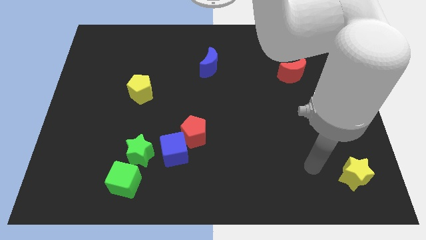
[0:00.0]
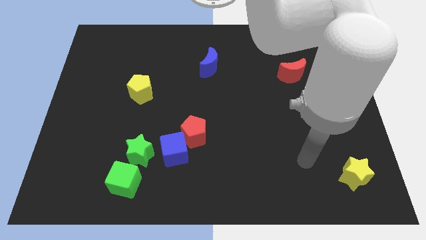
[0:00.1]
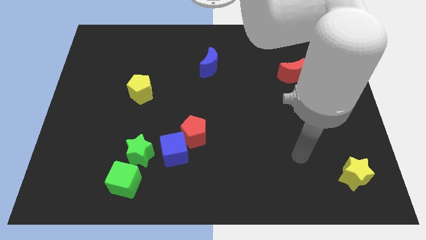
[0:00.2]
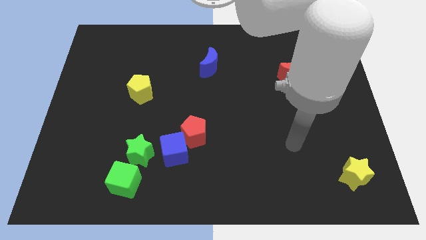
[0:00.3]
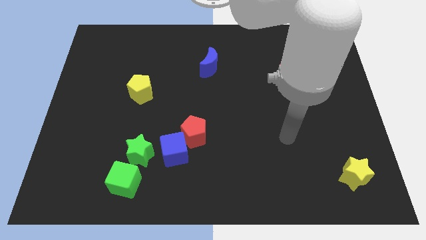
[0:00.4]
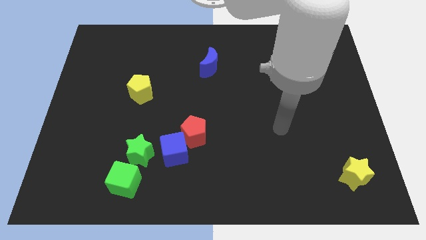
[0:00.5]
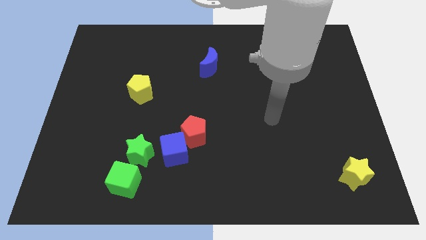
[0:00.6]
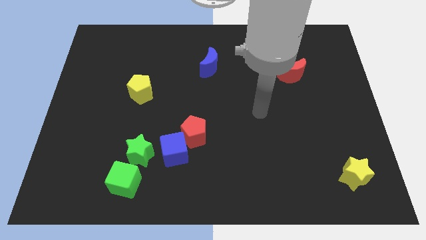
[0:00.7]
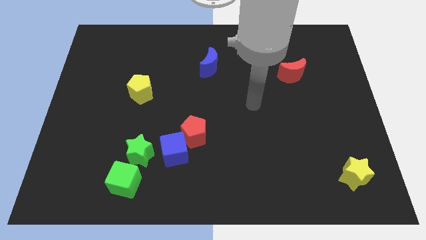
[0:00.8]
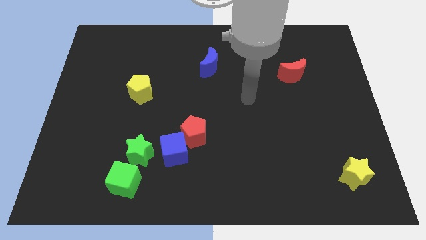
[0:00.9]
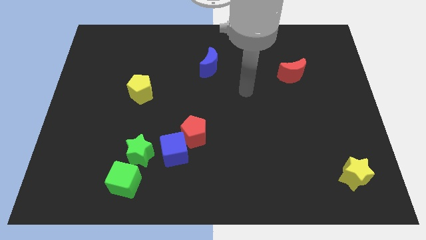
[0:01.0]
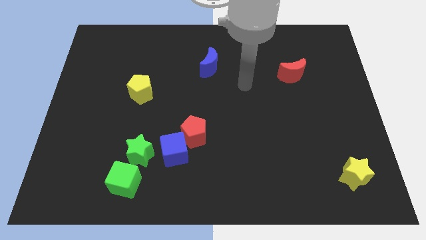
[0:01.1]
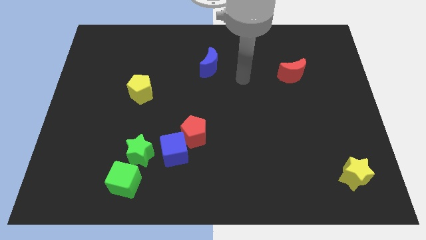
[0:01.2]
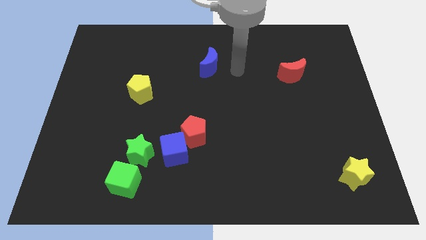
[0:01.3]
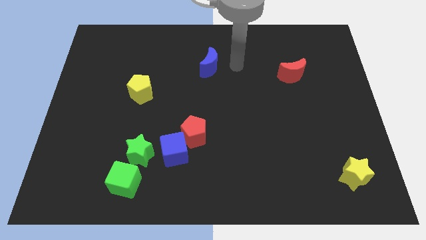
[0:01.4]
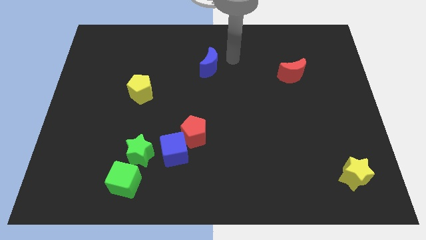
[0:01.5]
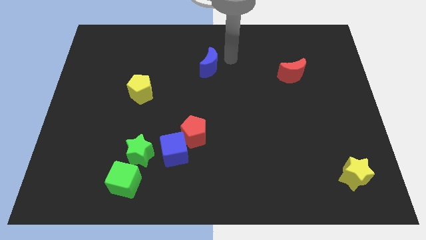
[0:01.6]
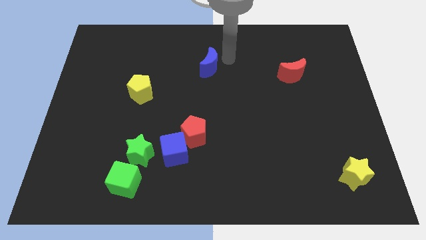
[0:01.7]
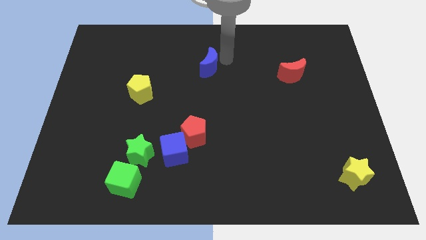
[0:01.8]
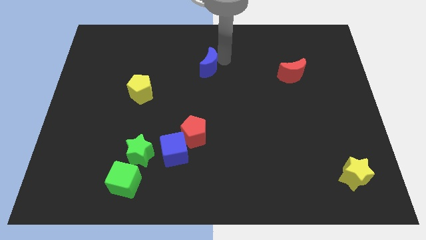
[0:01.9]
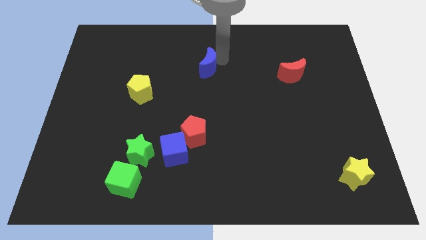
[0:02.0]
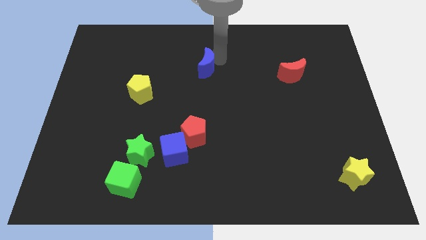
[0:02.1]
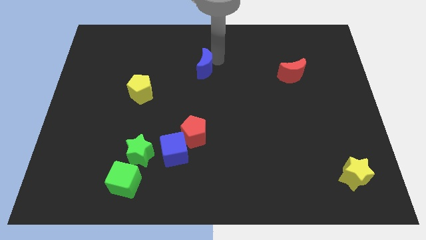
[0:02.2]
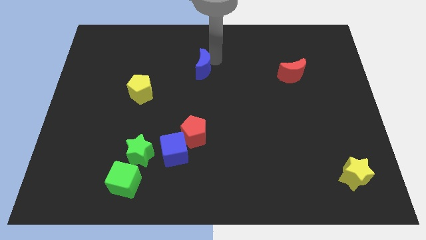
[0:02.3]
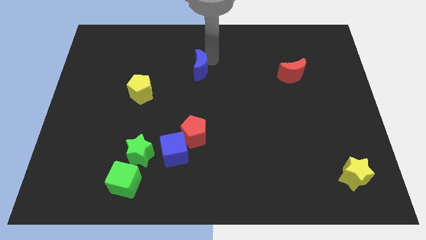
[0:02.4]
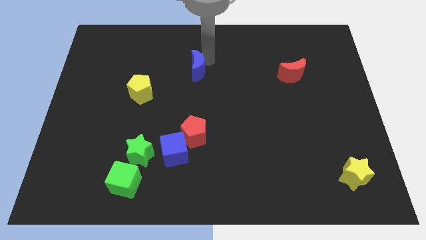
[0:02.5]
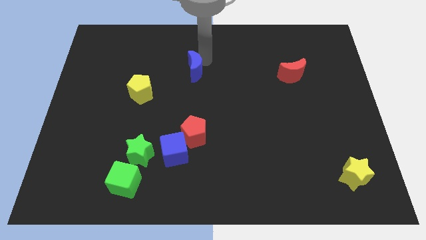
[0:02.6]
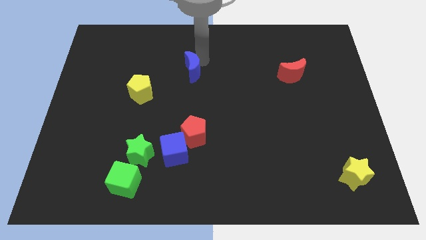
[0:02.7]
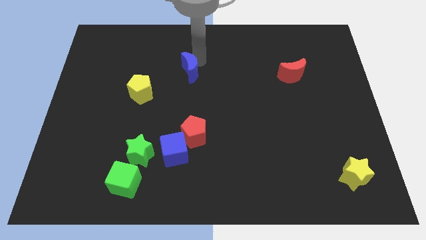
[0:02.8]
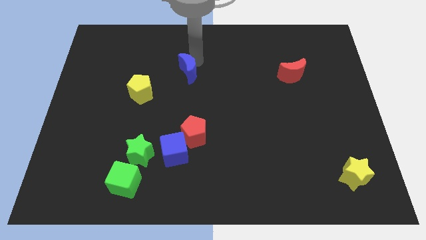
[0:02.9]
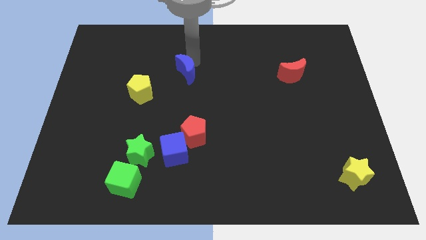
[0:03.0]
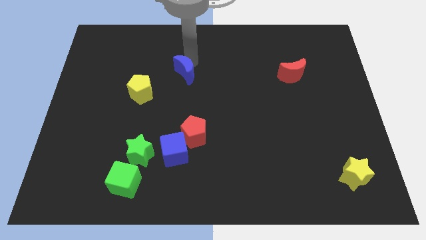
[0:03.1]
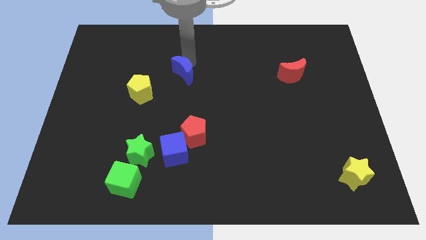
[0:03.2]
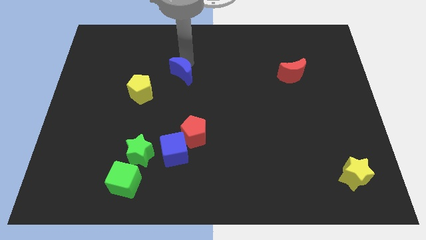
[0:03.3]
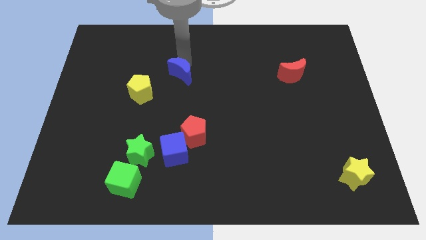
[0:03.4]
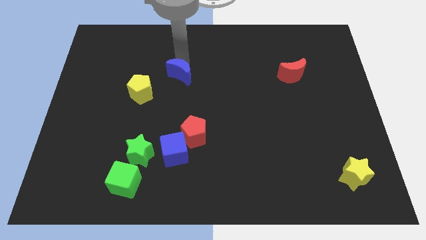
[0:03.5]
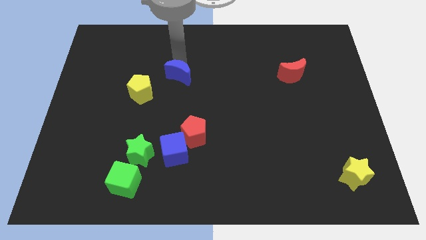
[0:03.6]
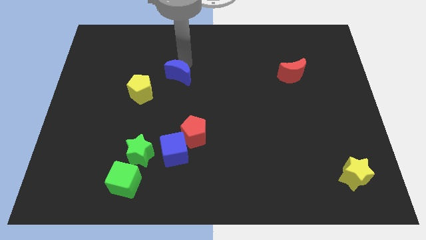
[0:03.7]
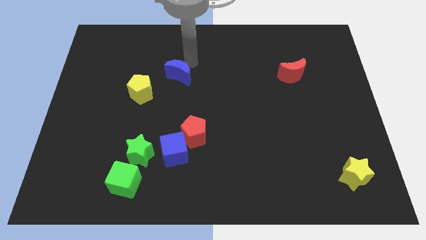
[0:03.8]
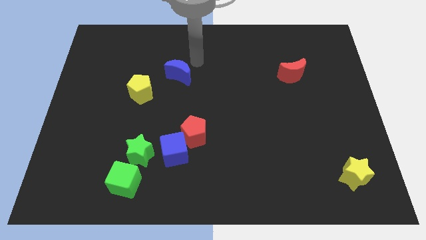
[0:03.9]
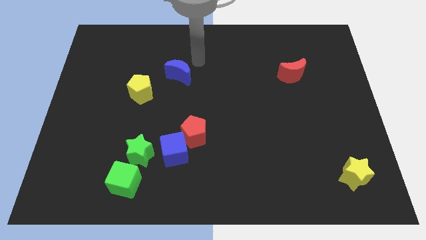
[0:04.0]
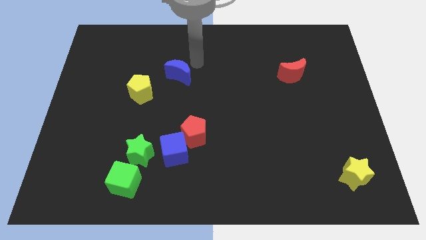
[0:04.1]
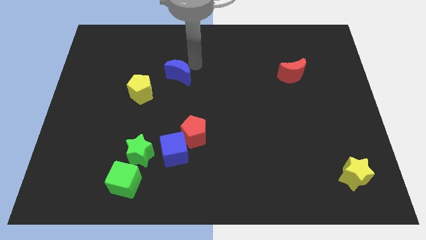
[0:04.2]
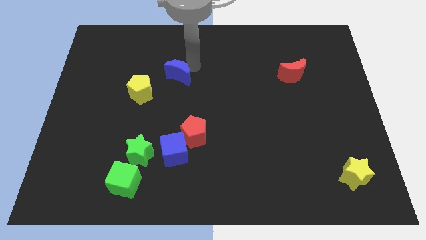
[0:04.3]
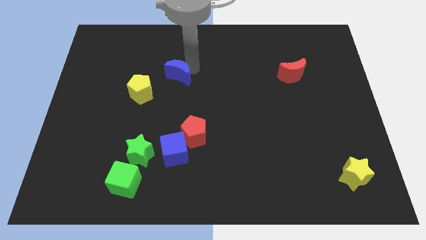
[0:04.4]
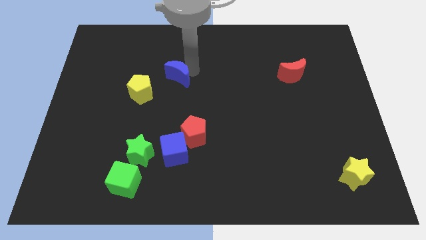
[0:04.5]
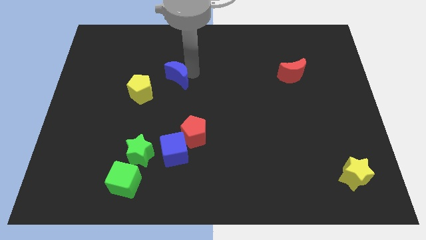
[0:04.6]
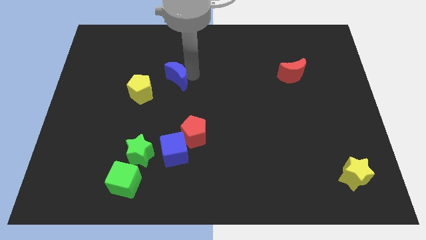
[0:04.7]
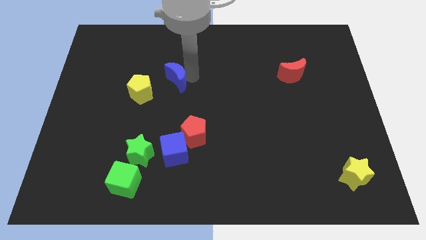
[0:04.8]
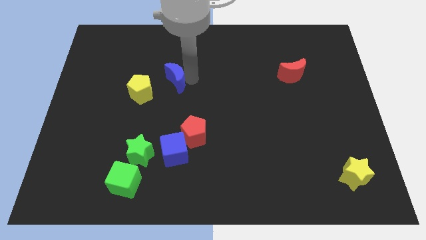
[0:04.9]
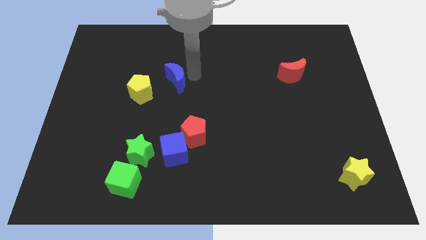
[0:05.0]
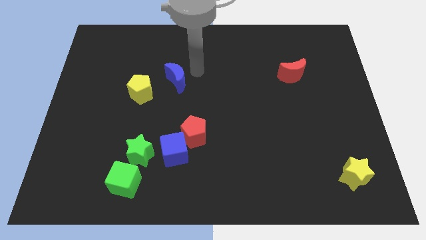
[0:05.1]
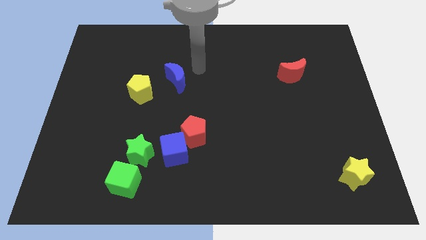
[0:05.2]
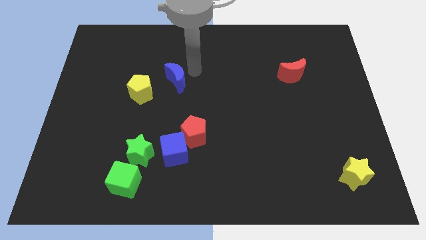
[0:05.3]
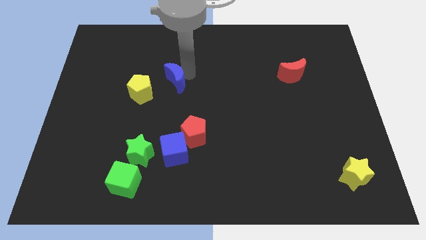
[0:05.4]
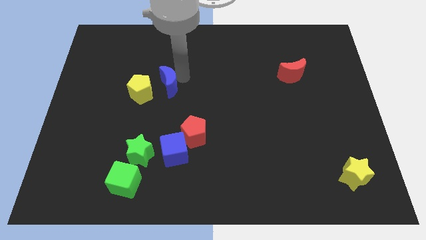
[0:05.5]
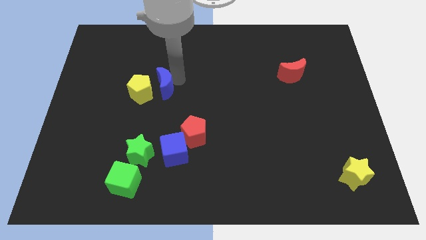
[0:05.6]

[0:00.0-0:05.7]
move the blue moon towards the yellow pentagon

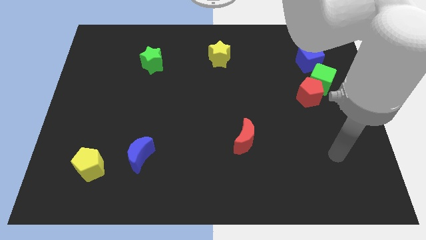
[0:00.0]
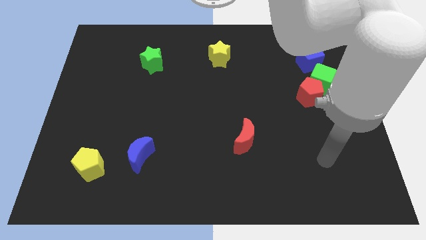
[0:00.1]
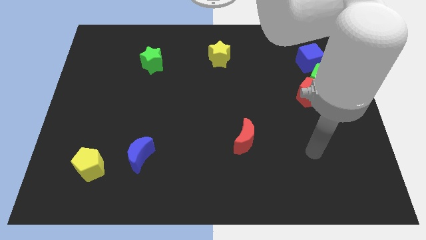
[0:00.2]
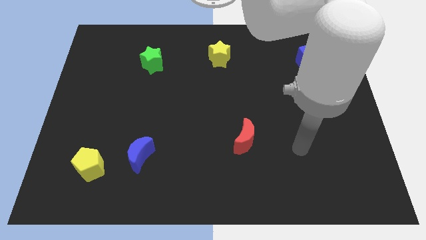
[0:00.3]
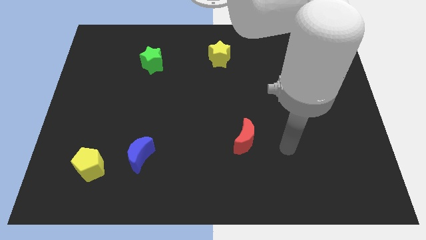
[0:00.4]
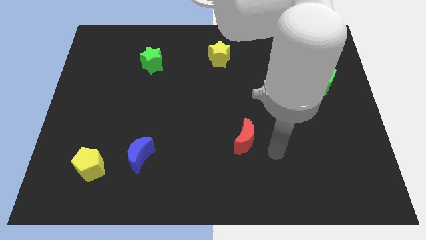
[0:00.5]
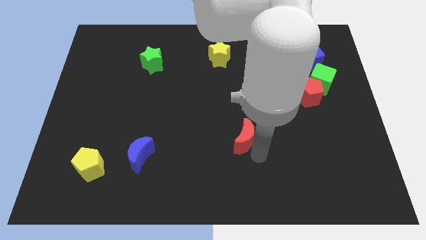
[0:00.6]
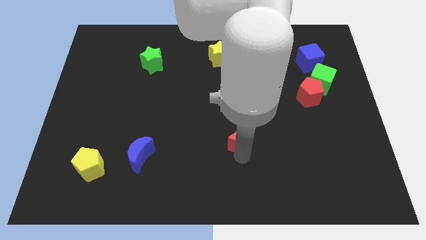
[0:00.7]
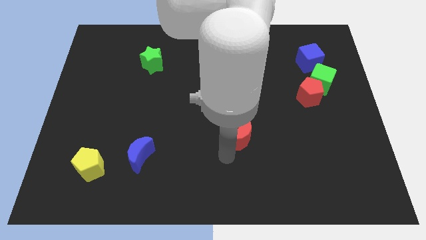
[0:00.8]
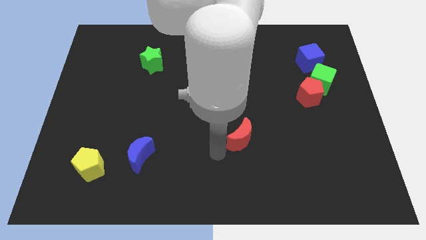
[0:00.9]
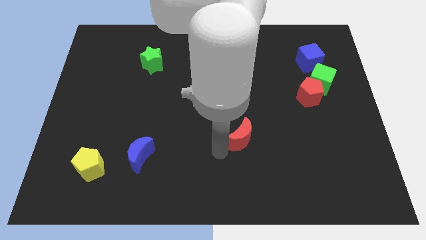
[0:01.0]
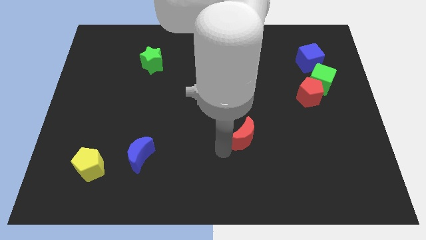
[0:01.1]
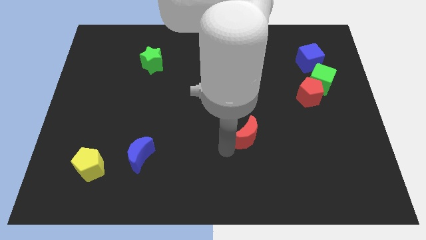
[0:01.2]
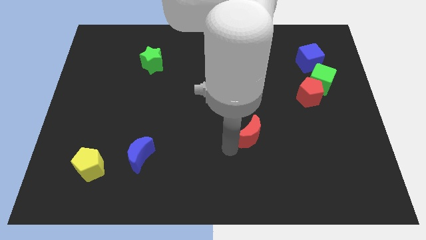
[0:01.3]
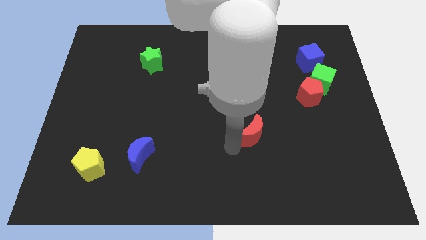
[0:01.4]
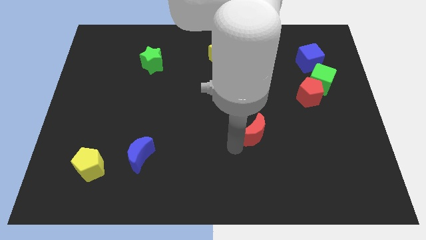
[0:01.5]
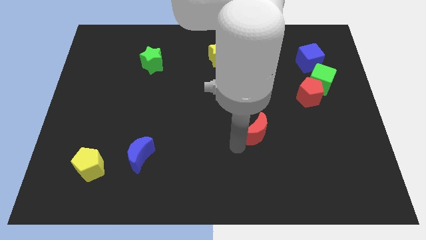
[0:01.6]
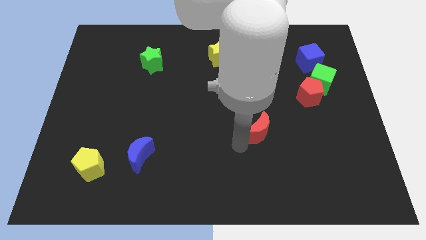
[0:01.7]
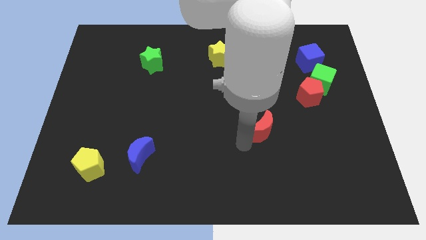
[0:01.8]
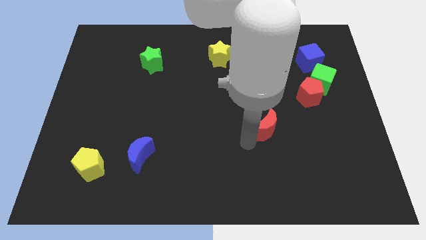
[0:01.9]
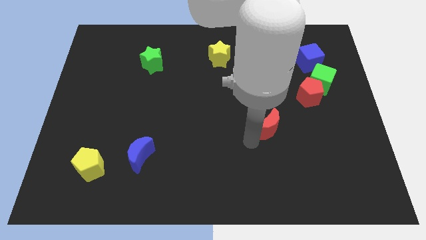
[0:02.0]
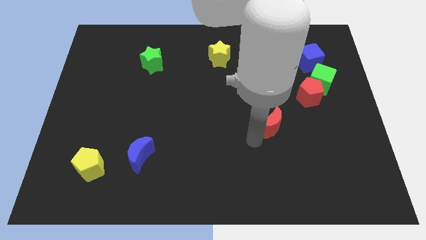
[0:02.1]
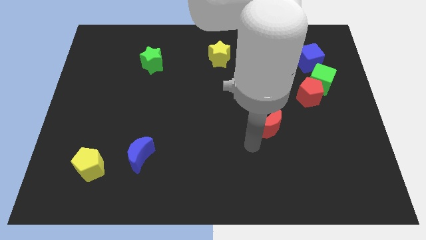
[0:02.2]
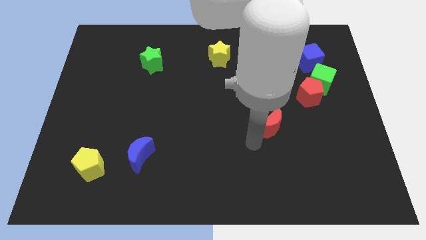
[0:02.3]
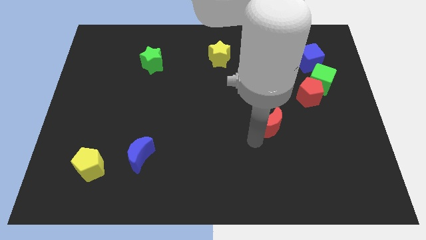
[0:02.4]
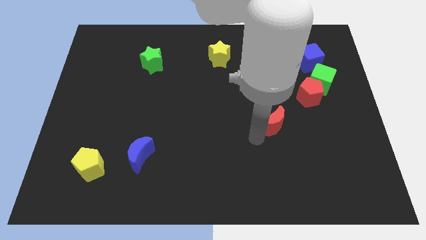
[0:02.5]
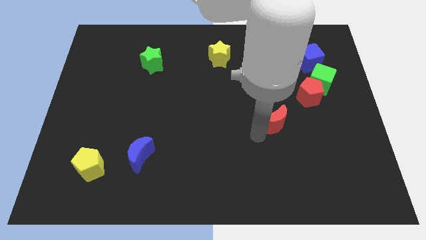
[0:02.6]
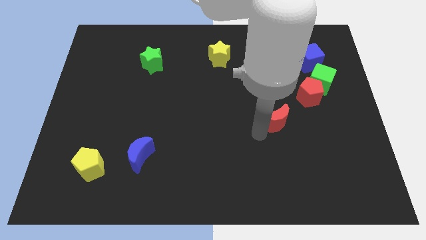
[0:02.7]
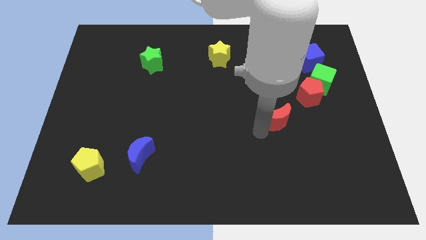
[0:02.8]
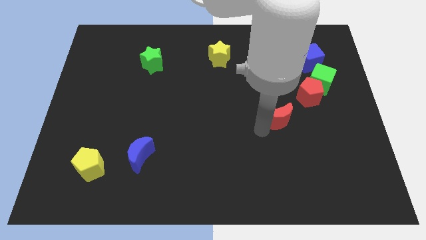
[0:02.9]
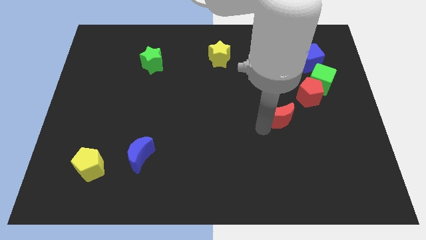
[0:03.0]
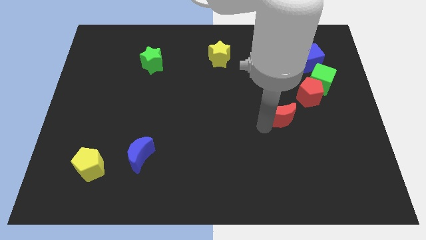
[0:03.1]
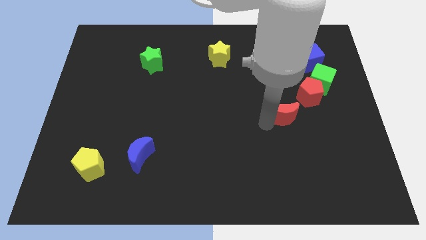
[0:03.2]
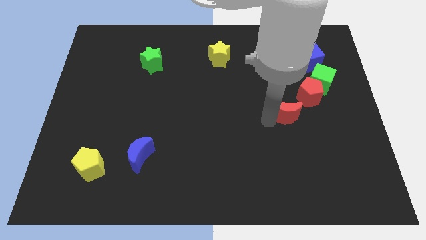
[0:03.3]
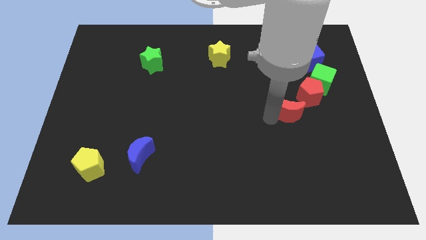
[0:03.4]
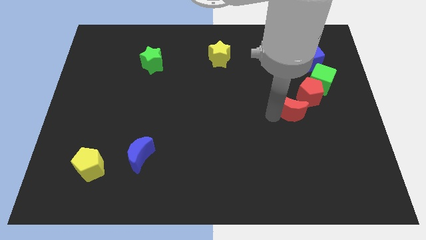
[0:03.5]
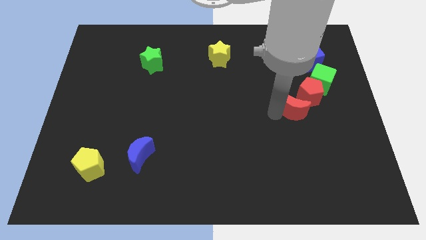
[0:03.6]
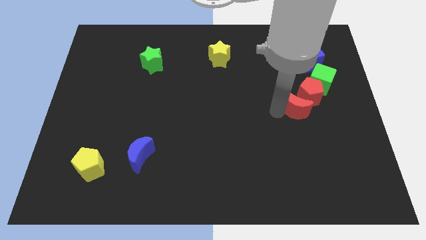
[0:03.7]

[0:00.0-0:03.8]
move the red moon to the red pentagon
